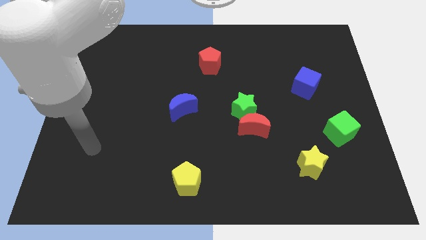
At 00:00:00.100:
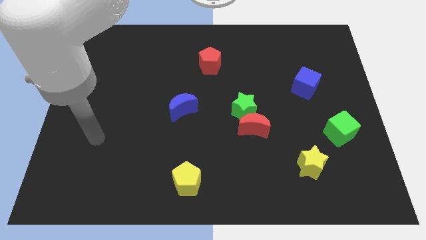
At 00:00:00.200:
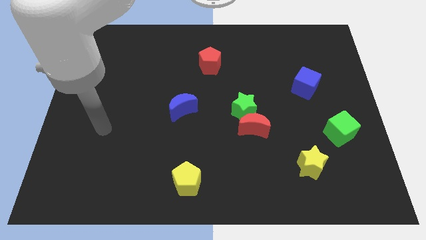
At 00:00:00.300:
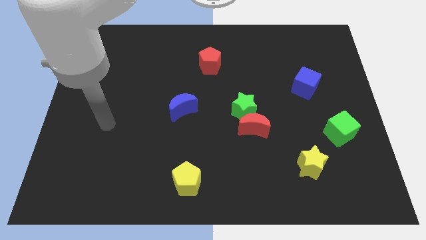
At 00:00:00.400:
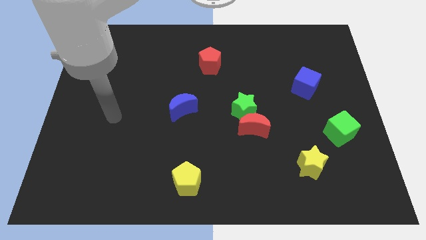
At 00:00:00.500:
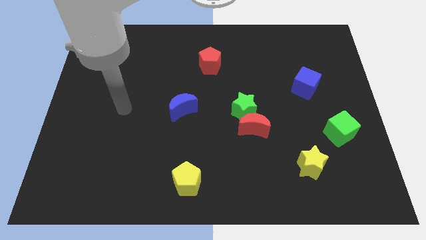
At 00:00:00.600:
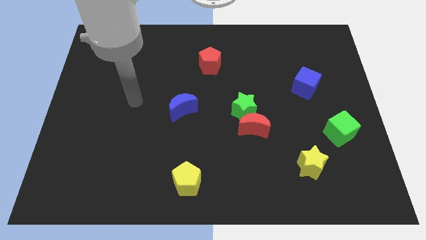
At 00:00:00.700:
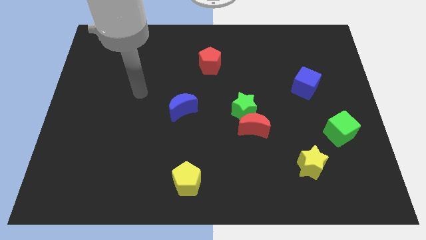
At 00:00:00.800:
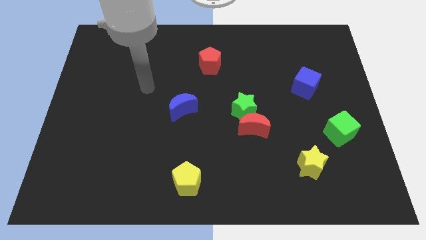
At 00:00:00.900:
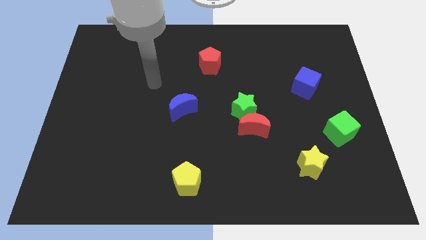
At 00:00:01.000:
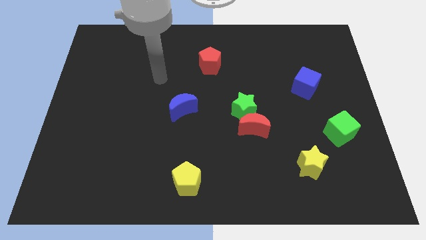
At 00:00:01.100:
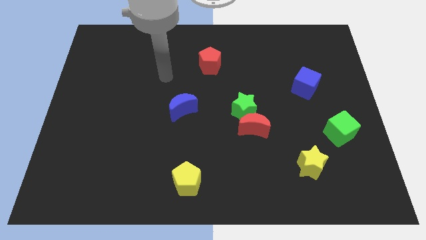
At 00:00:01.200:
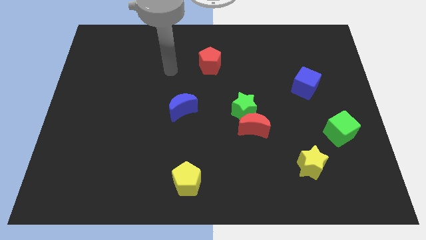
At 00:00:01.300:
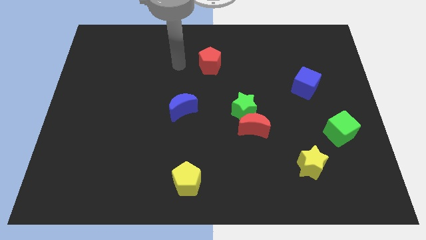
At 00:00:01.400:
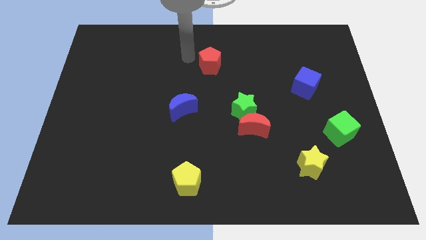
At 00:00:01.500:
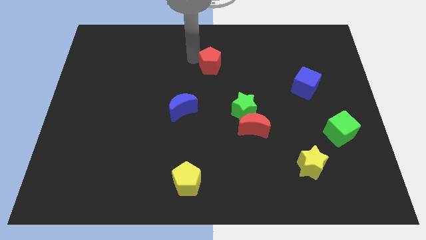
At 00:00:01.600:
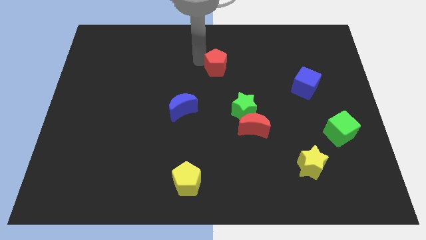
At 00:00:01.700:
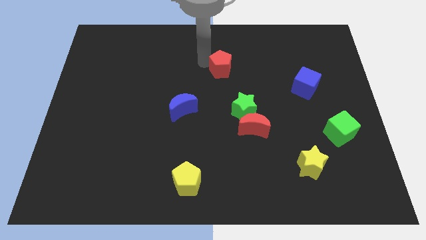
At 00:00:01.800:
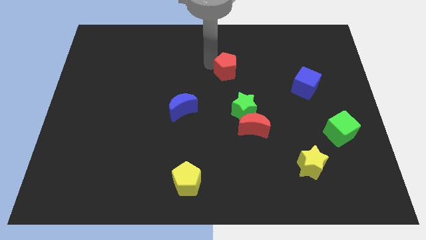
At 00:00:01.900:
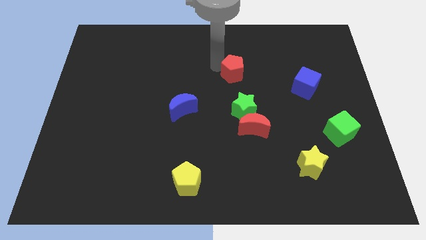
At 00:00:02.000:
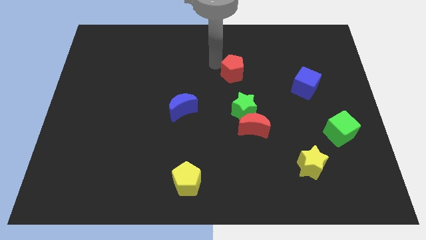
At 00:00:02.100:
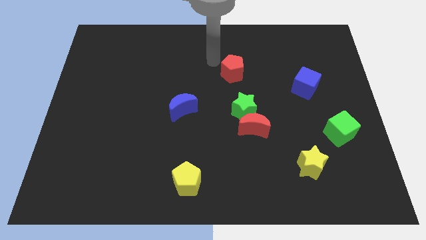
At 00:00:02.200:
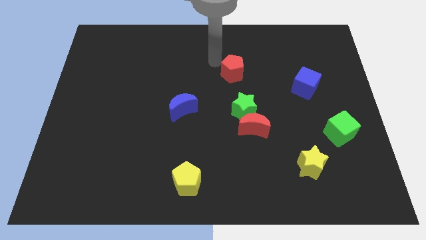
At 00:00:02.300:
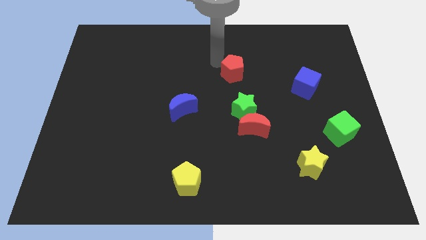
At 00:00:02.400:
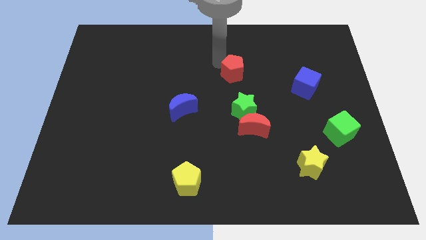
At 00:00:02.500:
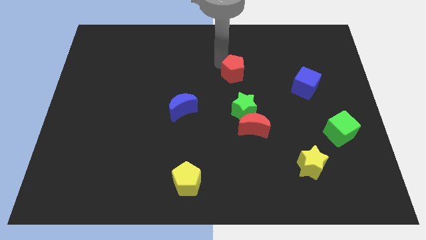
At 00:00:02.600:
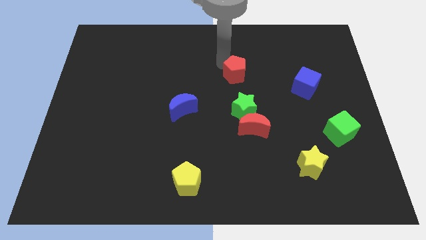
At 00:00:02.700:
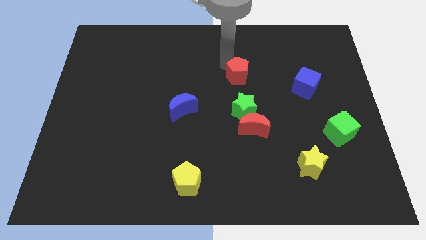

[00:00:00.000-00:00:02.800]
push the red pentagon a little bit diagonally downwards and right

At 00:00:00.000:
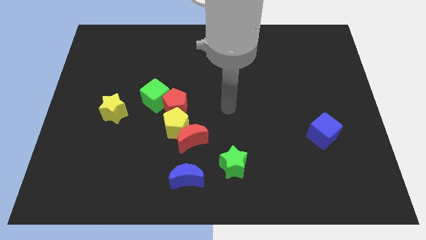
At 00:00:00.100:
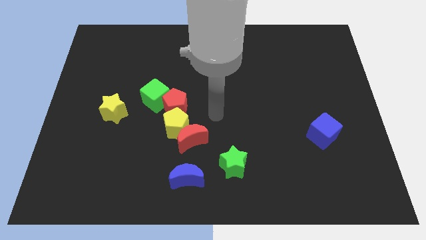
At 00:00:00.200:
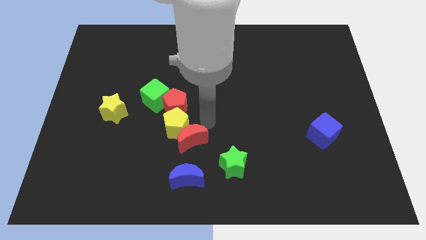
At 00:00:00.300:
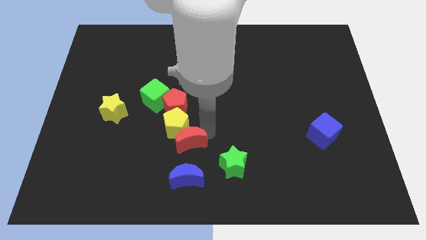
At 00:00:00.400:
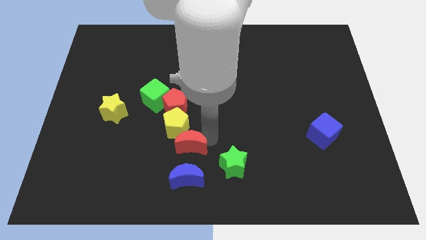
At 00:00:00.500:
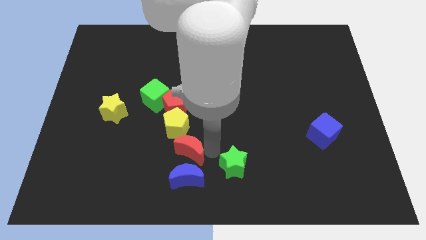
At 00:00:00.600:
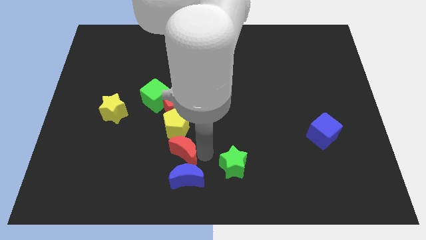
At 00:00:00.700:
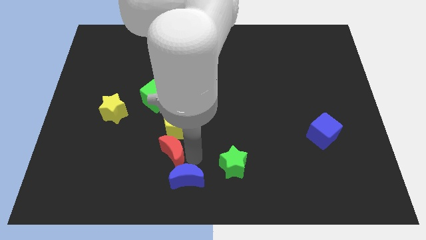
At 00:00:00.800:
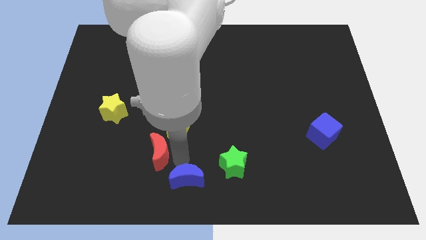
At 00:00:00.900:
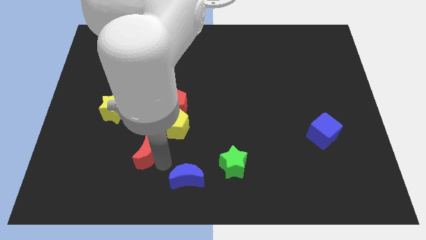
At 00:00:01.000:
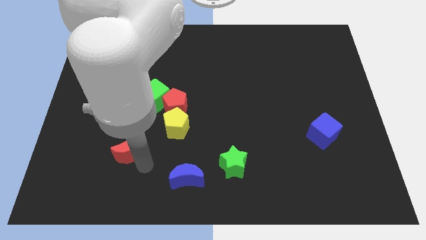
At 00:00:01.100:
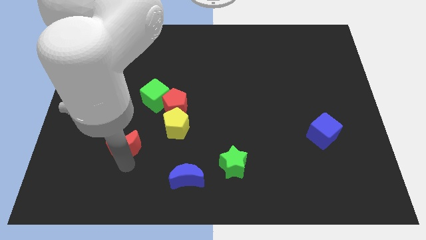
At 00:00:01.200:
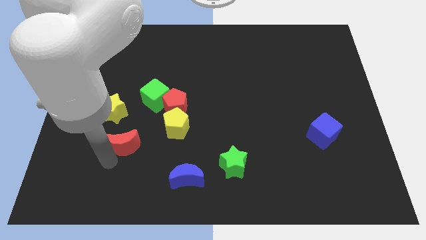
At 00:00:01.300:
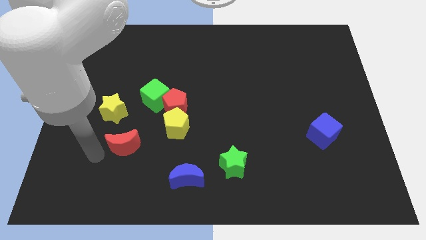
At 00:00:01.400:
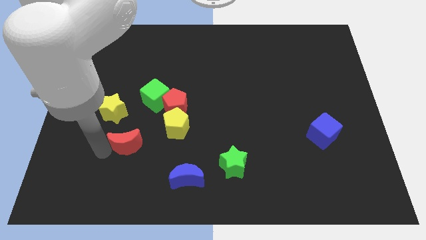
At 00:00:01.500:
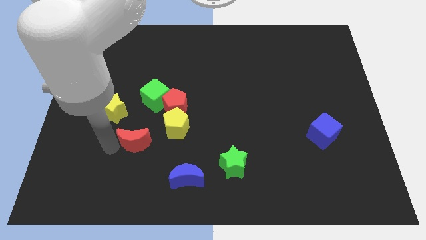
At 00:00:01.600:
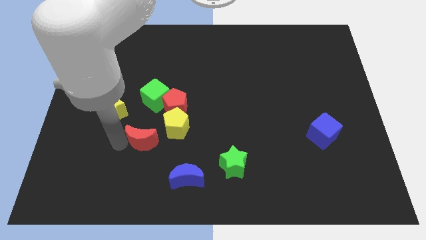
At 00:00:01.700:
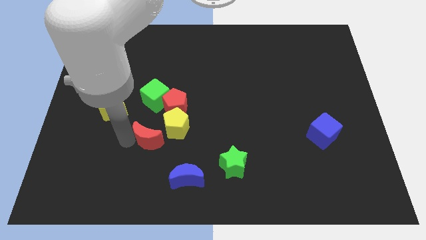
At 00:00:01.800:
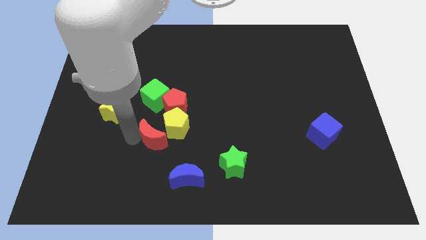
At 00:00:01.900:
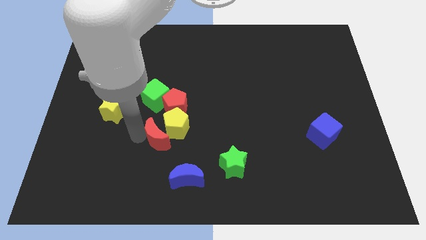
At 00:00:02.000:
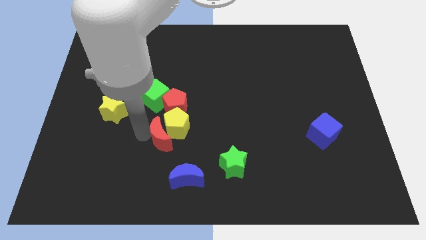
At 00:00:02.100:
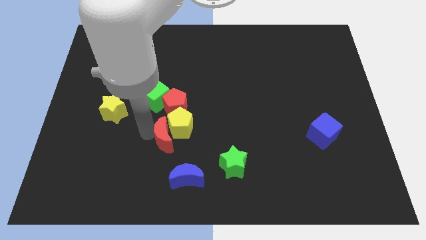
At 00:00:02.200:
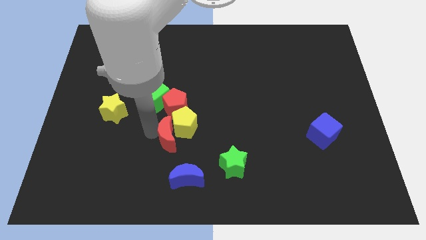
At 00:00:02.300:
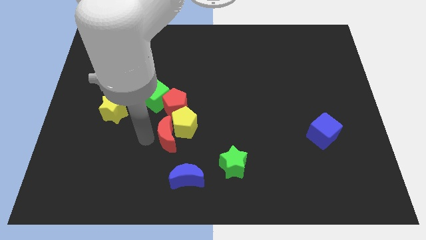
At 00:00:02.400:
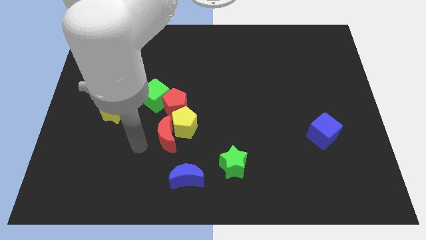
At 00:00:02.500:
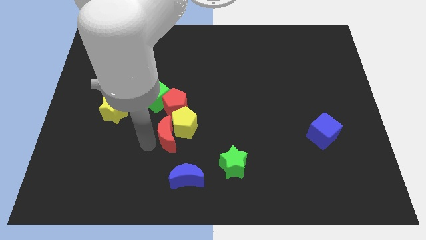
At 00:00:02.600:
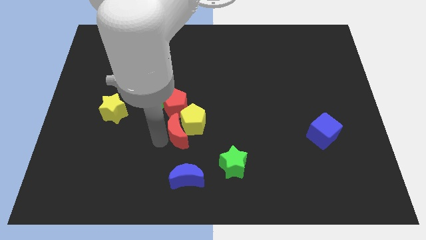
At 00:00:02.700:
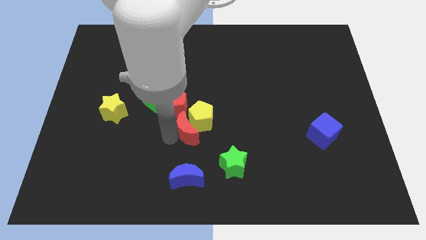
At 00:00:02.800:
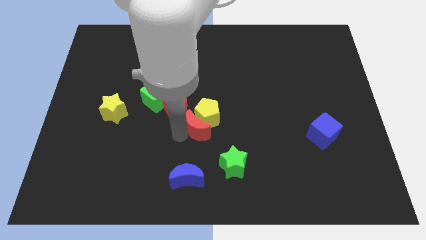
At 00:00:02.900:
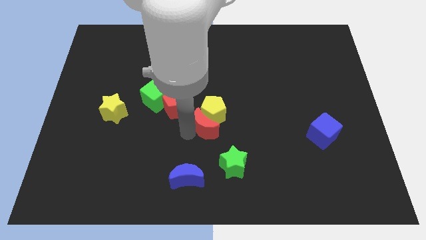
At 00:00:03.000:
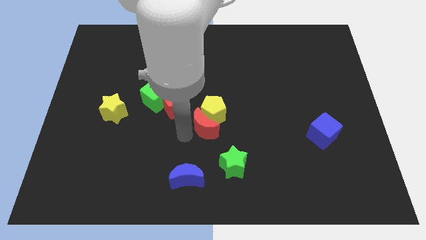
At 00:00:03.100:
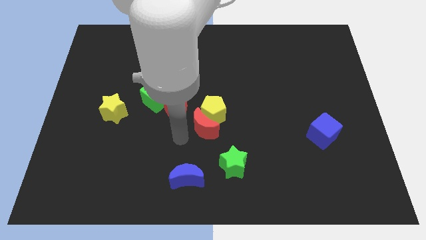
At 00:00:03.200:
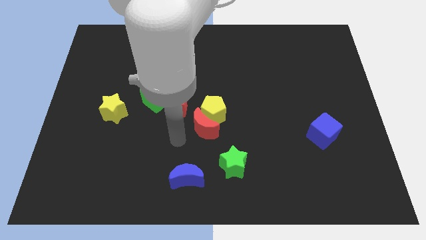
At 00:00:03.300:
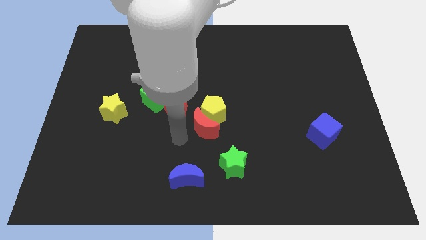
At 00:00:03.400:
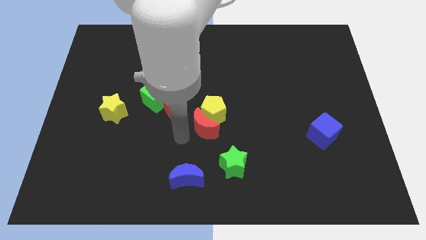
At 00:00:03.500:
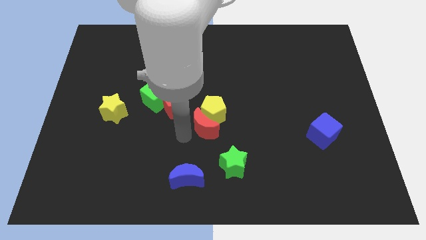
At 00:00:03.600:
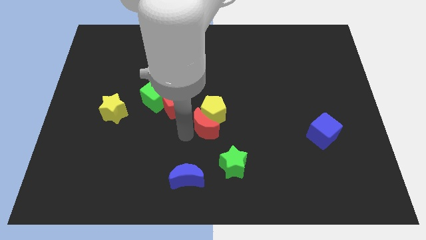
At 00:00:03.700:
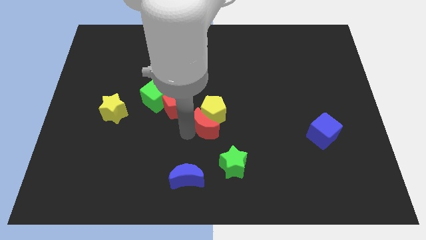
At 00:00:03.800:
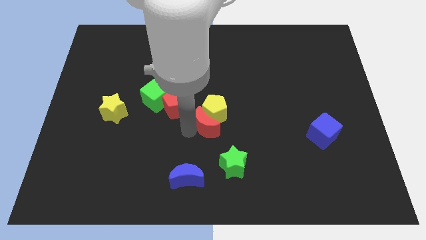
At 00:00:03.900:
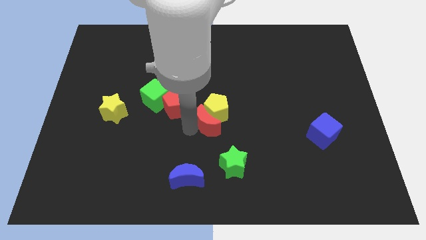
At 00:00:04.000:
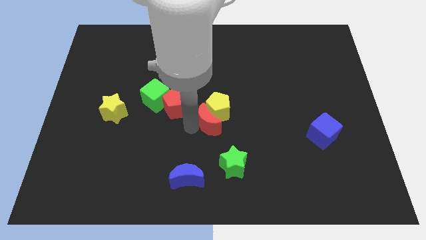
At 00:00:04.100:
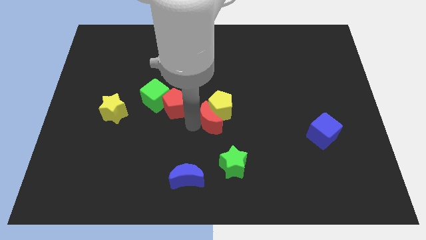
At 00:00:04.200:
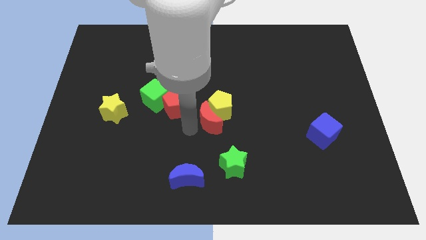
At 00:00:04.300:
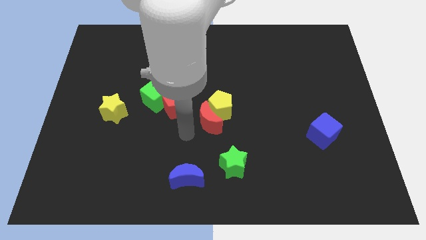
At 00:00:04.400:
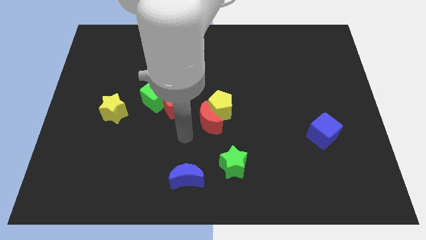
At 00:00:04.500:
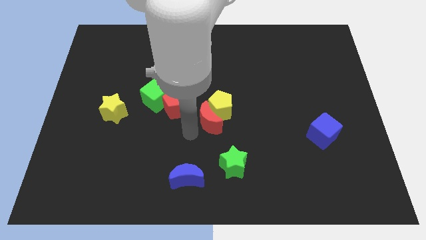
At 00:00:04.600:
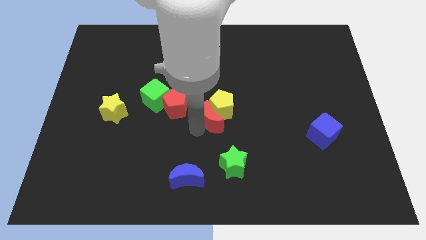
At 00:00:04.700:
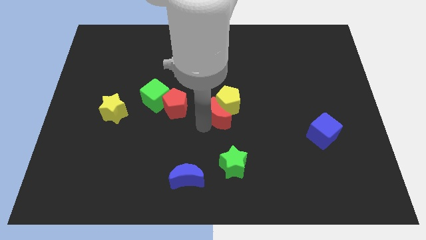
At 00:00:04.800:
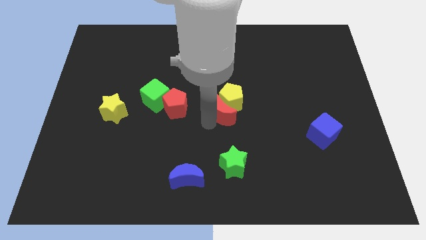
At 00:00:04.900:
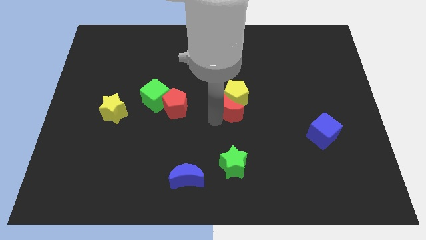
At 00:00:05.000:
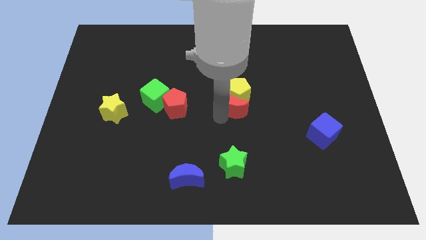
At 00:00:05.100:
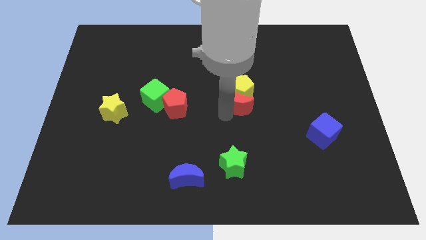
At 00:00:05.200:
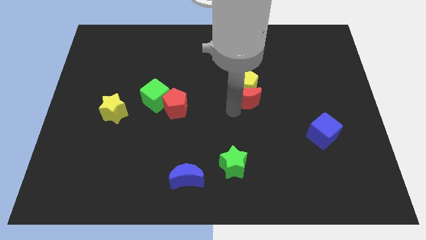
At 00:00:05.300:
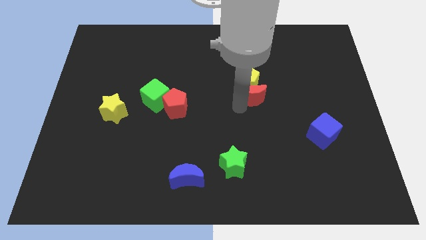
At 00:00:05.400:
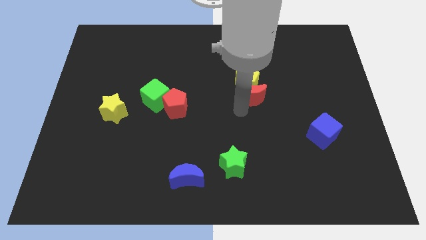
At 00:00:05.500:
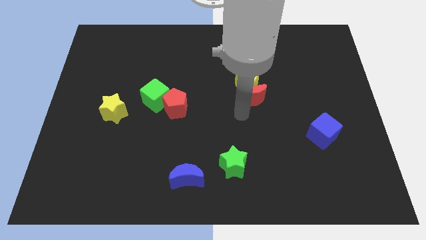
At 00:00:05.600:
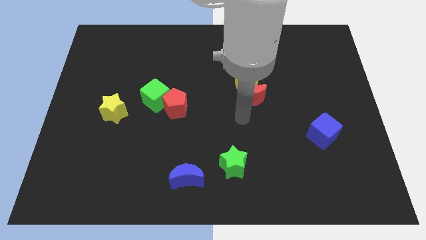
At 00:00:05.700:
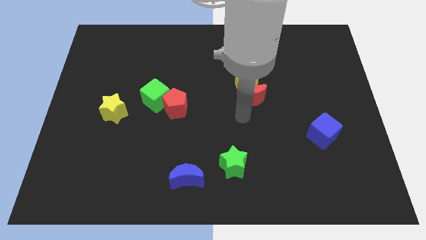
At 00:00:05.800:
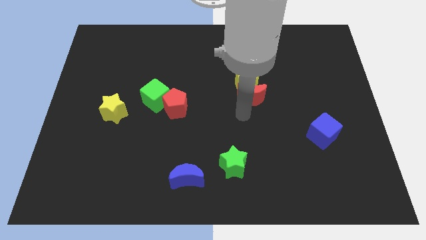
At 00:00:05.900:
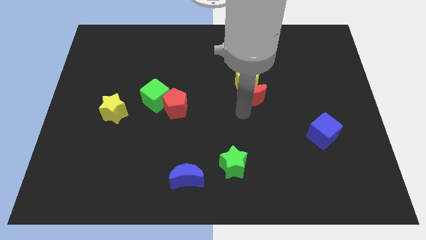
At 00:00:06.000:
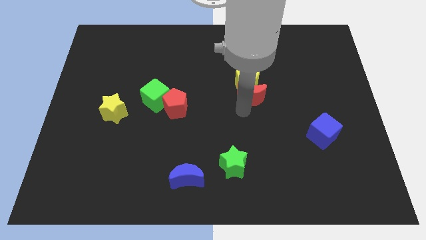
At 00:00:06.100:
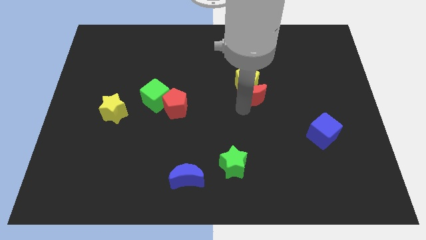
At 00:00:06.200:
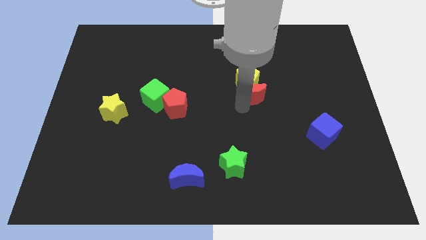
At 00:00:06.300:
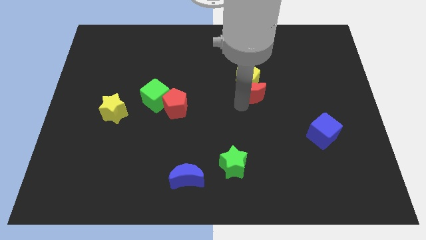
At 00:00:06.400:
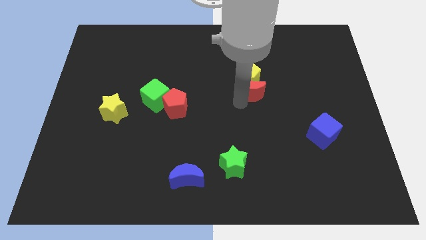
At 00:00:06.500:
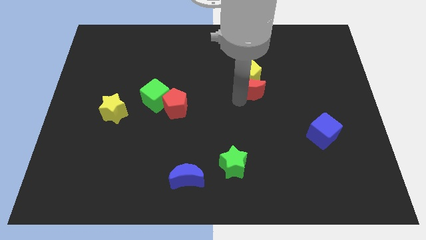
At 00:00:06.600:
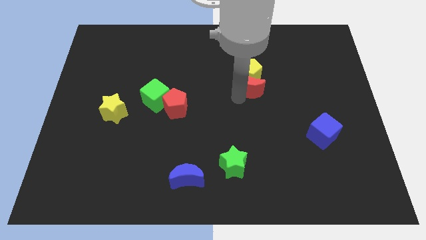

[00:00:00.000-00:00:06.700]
move the red moon diagonally up and to the right
